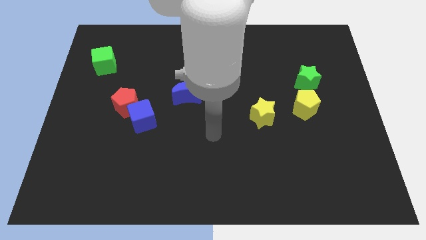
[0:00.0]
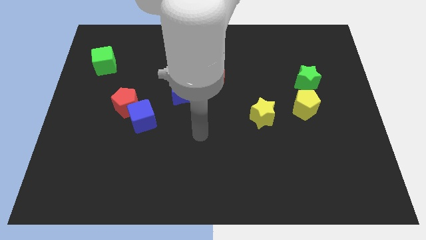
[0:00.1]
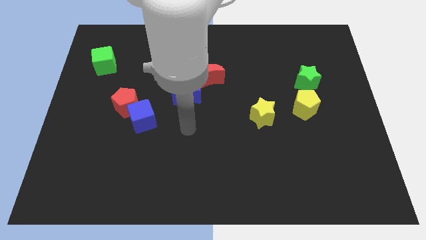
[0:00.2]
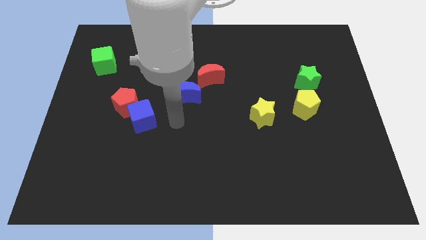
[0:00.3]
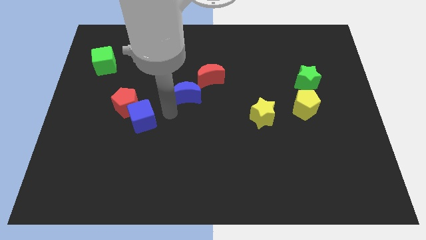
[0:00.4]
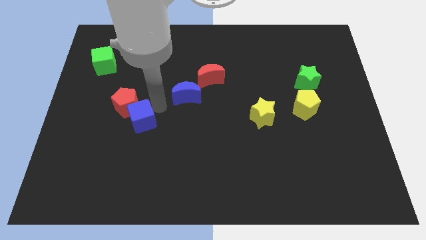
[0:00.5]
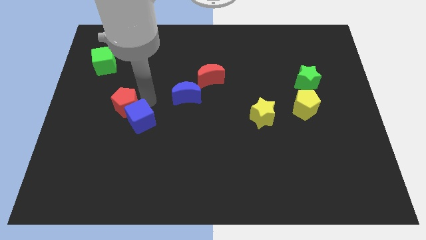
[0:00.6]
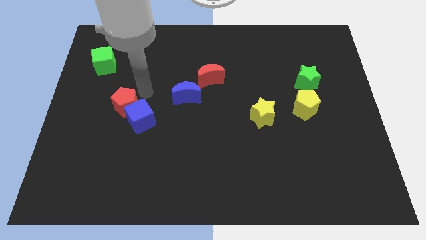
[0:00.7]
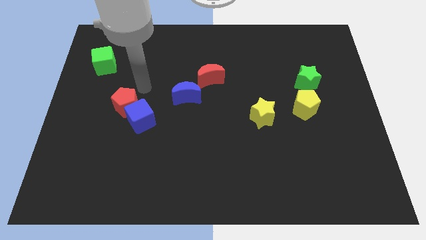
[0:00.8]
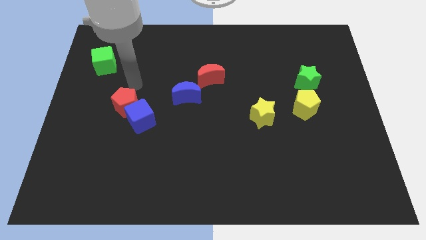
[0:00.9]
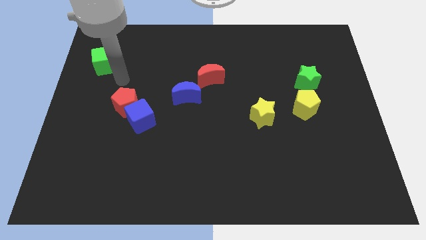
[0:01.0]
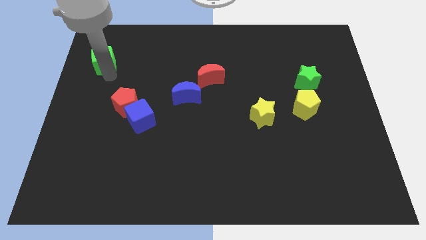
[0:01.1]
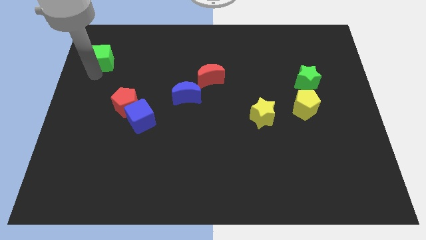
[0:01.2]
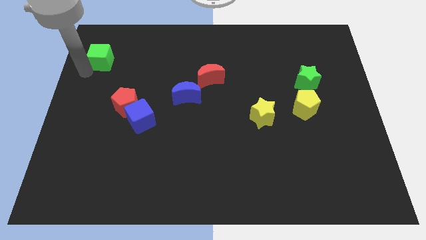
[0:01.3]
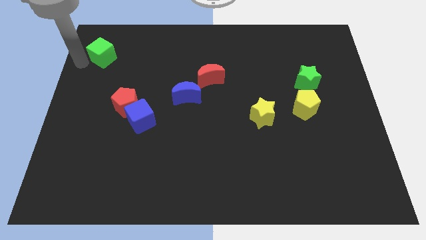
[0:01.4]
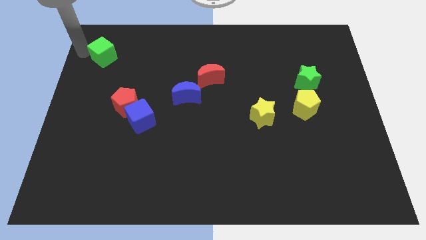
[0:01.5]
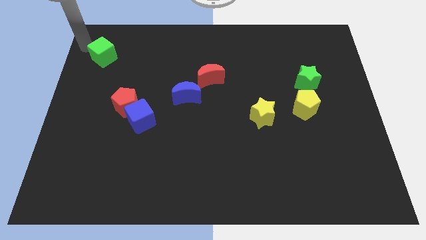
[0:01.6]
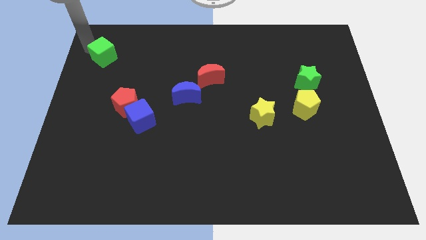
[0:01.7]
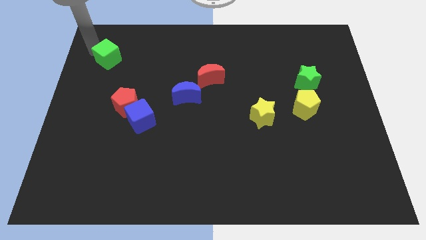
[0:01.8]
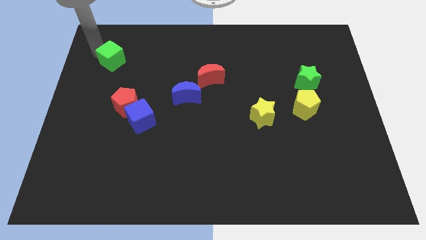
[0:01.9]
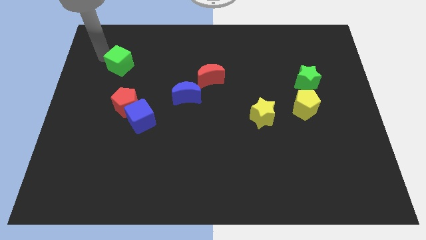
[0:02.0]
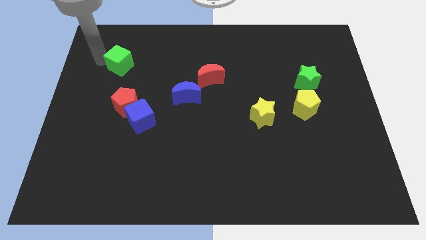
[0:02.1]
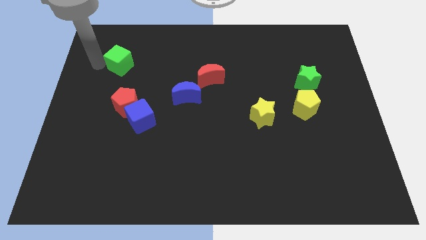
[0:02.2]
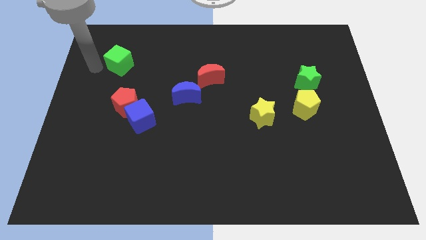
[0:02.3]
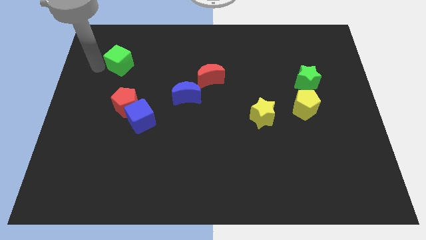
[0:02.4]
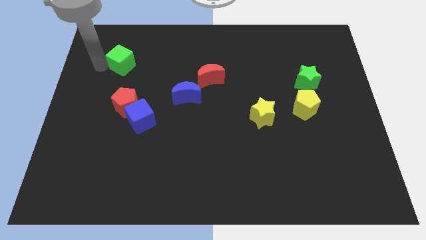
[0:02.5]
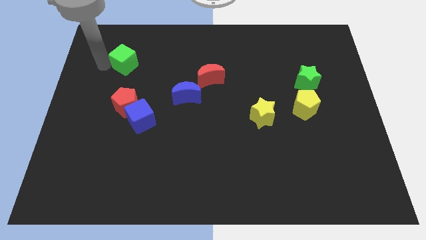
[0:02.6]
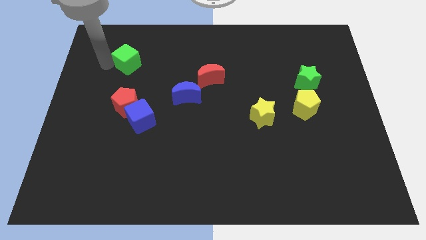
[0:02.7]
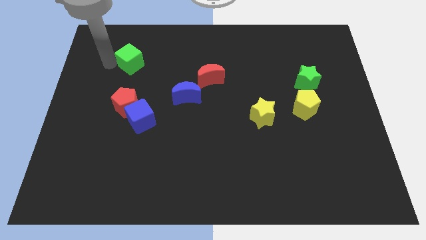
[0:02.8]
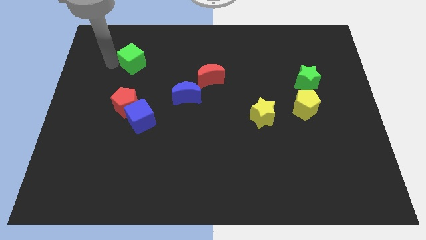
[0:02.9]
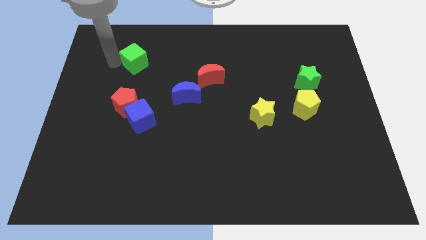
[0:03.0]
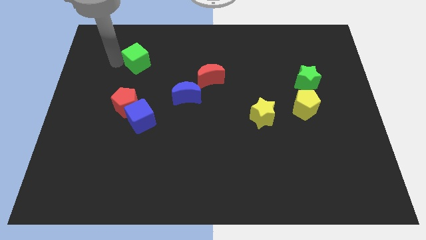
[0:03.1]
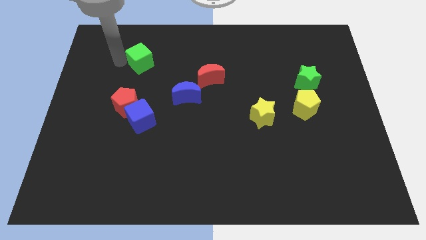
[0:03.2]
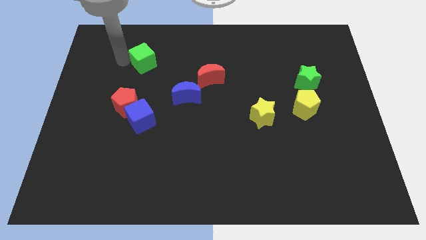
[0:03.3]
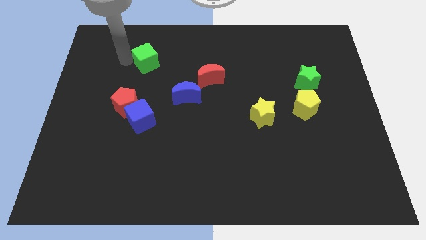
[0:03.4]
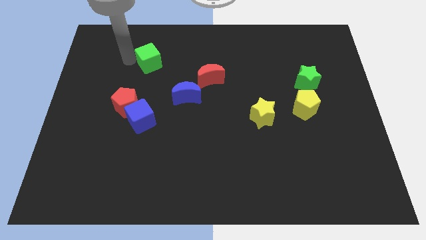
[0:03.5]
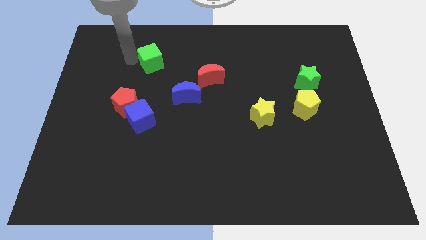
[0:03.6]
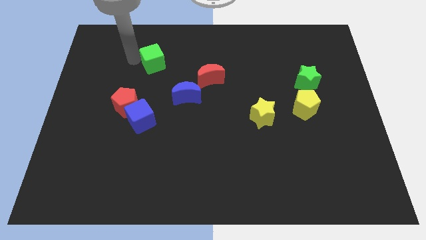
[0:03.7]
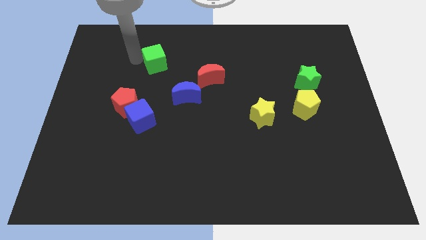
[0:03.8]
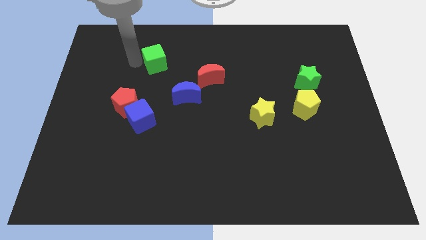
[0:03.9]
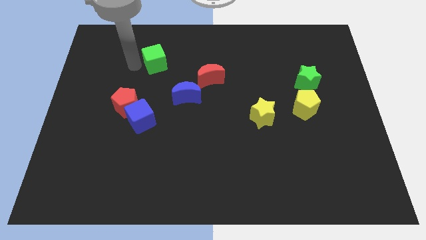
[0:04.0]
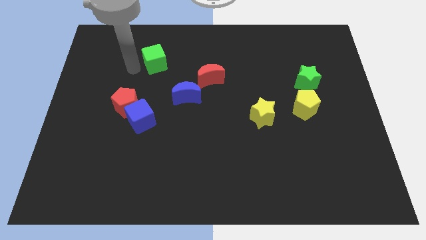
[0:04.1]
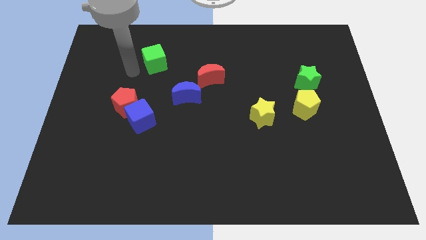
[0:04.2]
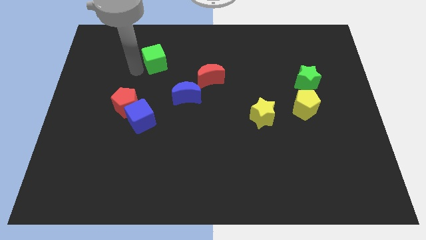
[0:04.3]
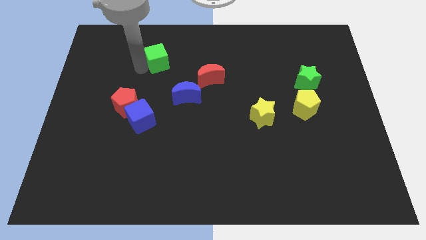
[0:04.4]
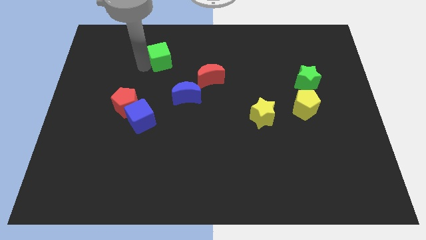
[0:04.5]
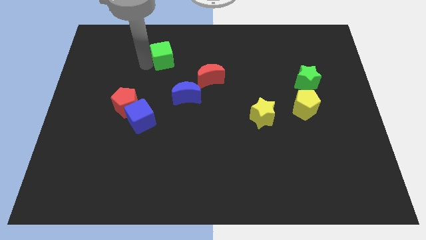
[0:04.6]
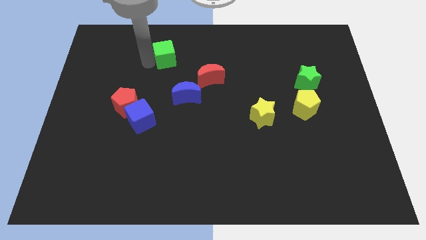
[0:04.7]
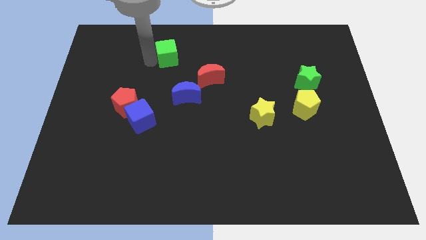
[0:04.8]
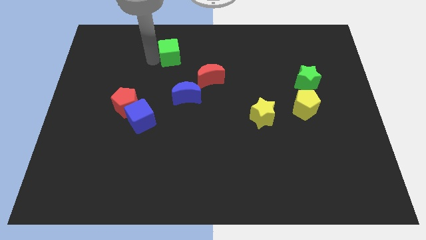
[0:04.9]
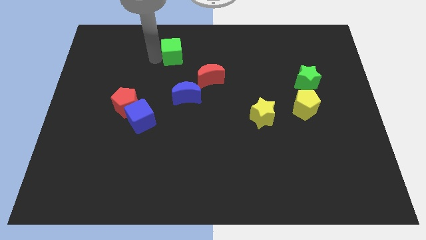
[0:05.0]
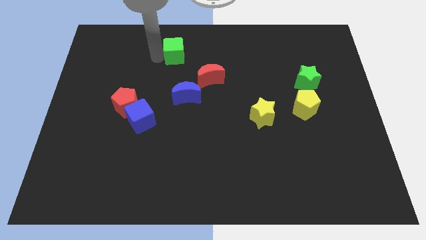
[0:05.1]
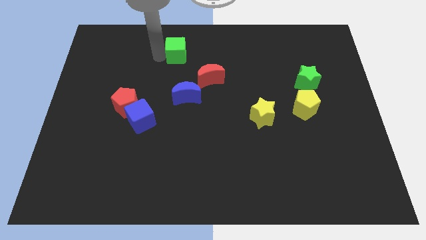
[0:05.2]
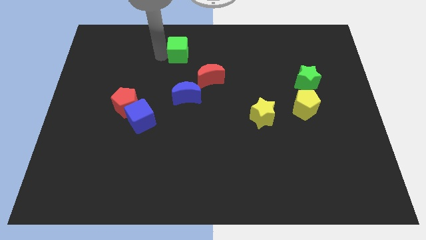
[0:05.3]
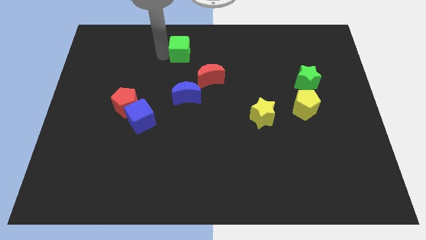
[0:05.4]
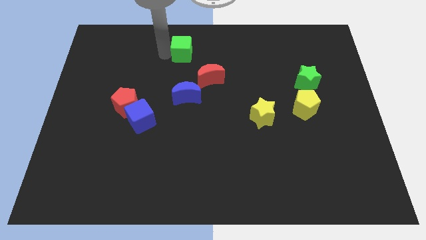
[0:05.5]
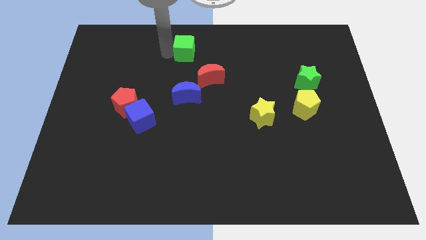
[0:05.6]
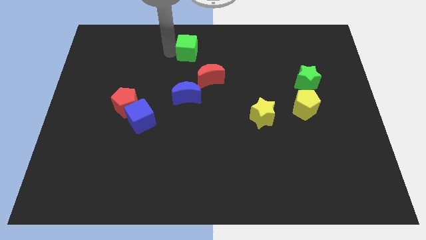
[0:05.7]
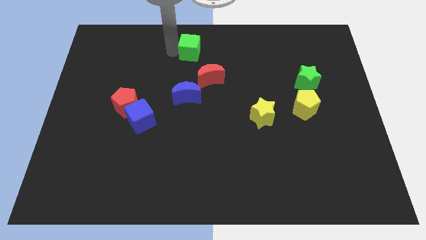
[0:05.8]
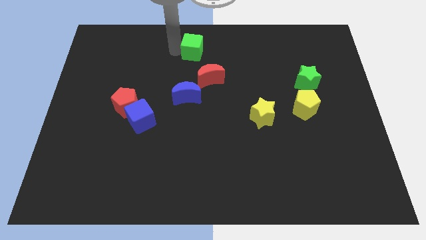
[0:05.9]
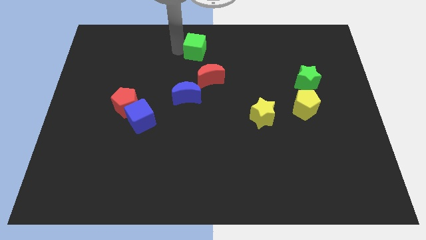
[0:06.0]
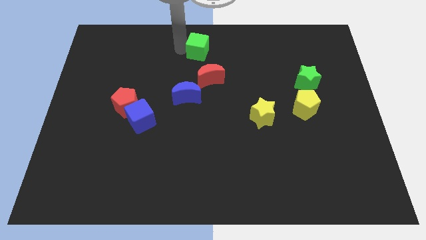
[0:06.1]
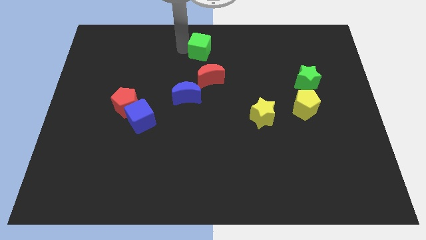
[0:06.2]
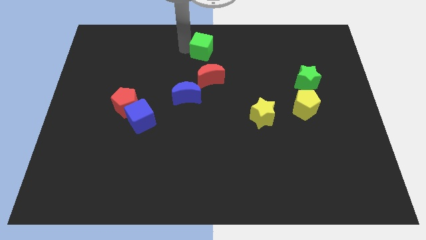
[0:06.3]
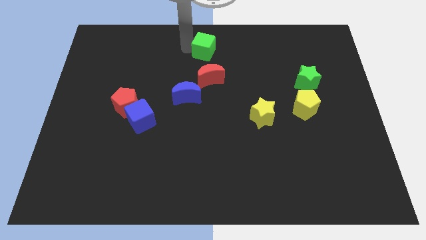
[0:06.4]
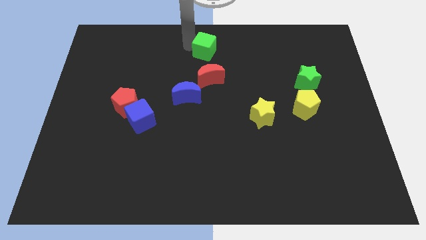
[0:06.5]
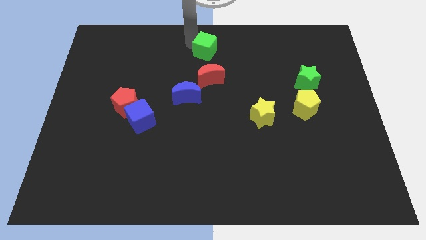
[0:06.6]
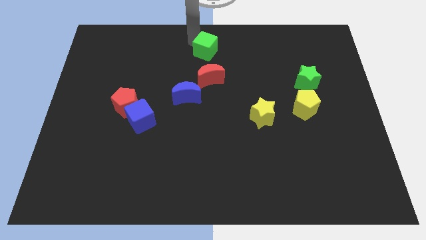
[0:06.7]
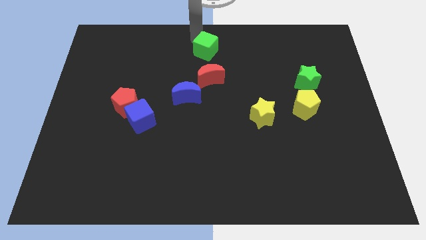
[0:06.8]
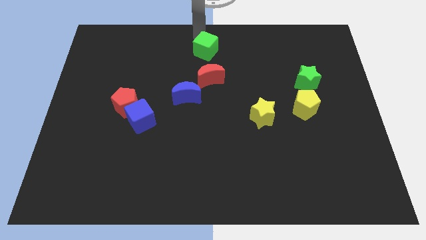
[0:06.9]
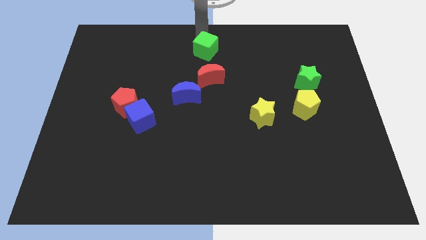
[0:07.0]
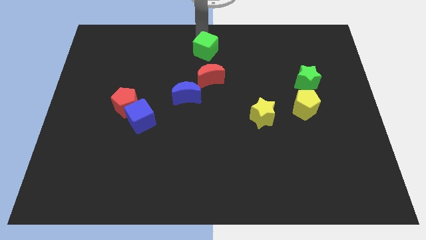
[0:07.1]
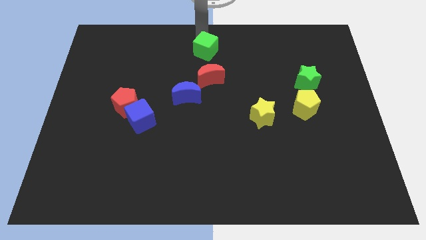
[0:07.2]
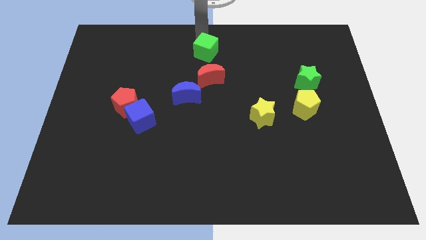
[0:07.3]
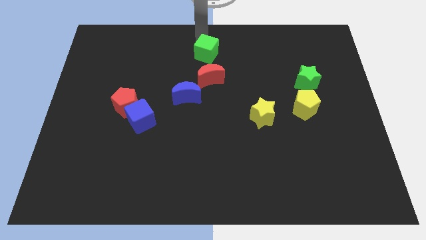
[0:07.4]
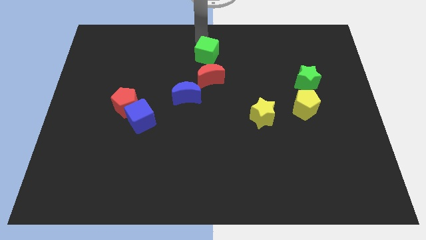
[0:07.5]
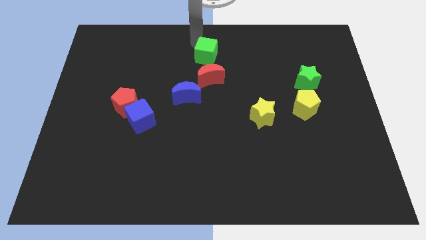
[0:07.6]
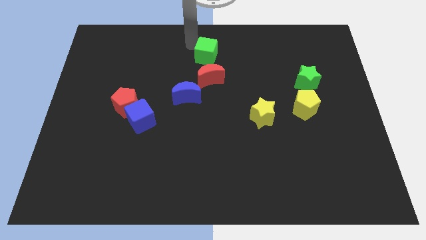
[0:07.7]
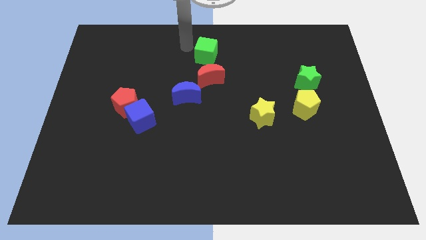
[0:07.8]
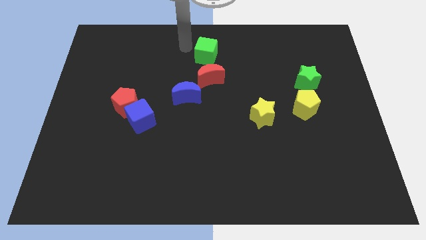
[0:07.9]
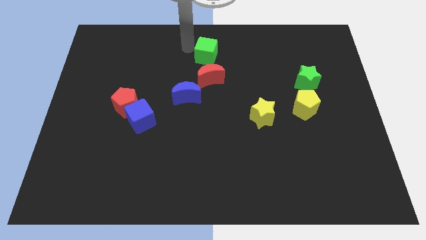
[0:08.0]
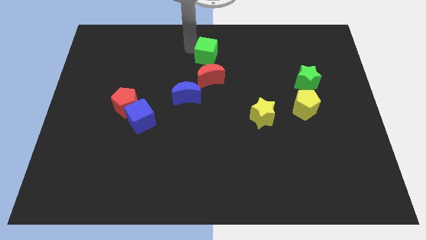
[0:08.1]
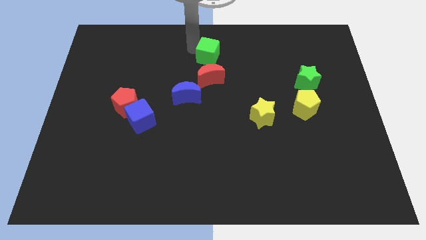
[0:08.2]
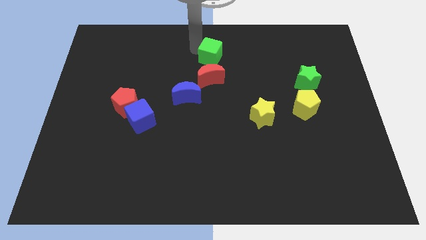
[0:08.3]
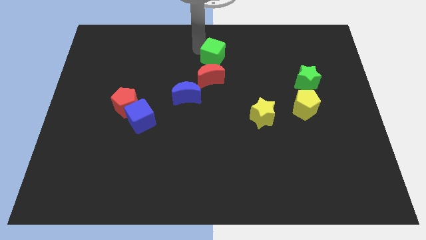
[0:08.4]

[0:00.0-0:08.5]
move the green cube to the top right of the red moon
